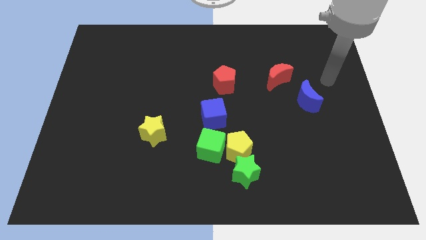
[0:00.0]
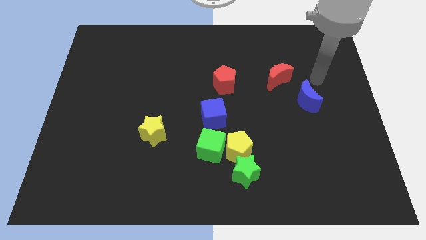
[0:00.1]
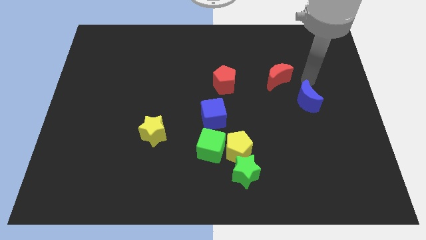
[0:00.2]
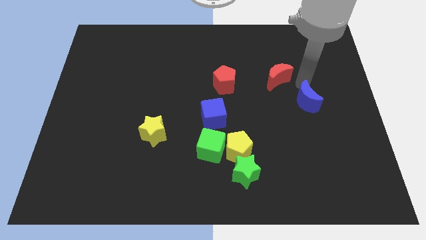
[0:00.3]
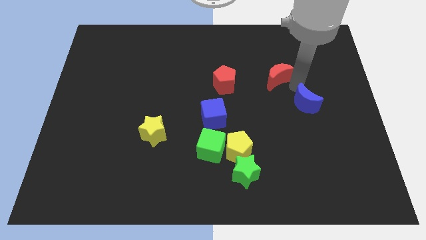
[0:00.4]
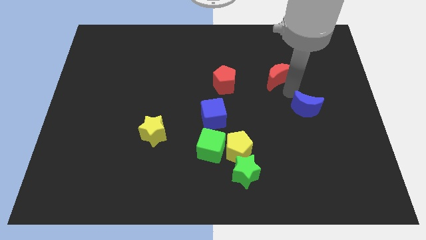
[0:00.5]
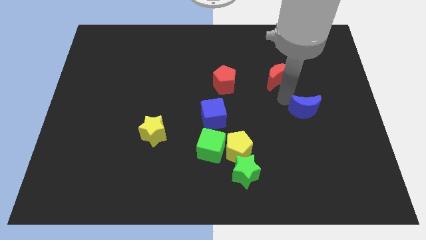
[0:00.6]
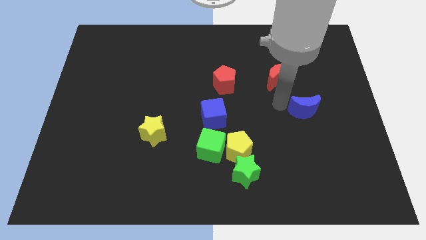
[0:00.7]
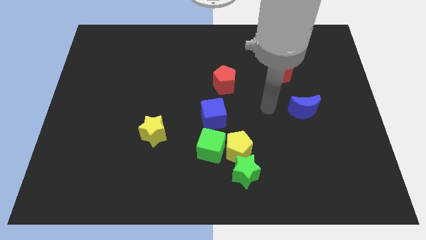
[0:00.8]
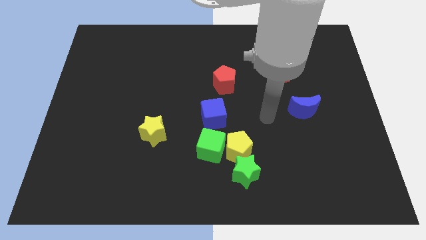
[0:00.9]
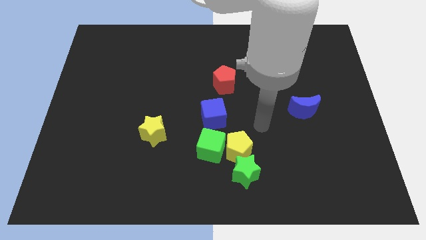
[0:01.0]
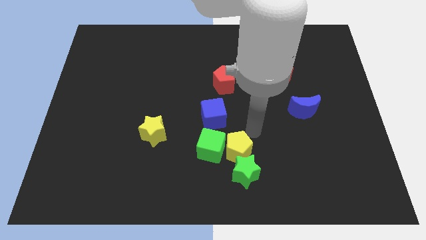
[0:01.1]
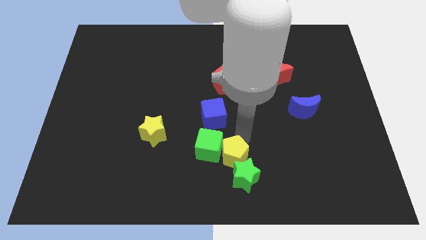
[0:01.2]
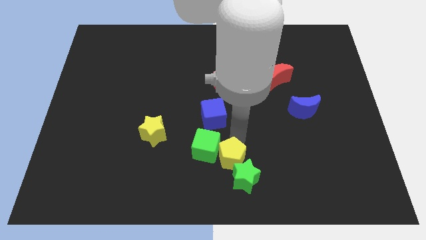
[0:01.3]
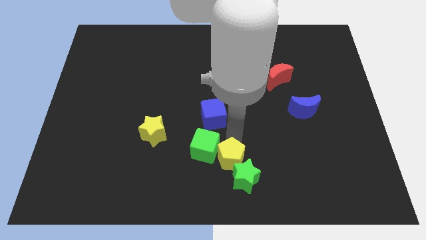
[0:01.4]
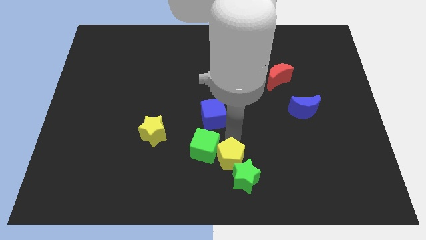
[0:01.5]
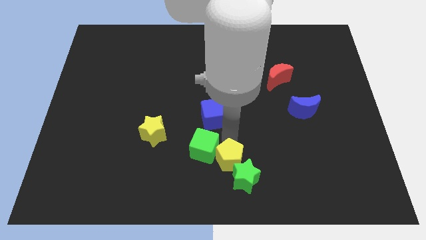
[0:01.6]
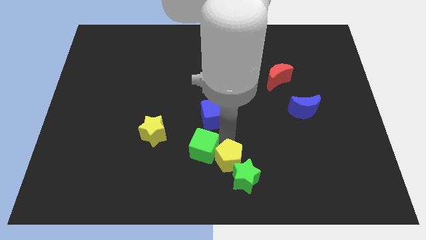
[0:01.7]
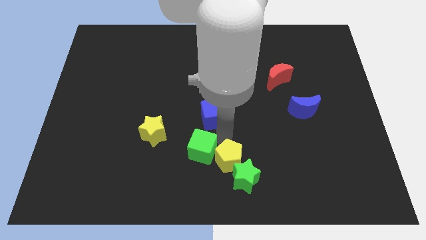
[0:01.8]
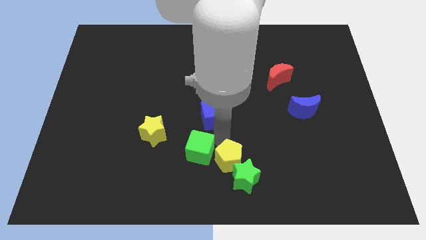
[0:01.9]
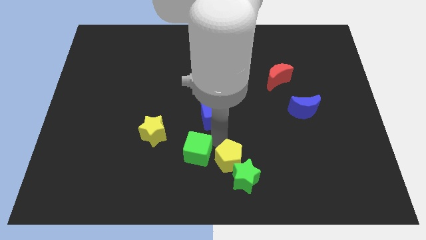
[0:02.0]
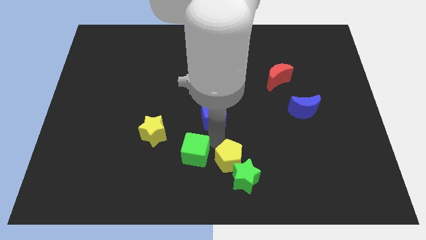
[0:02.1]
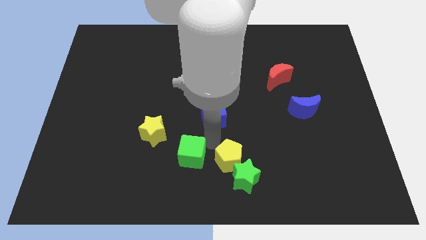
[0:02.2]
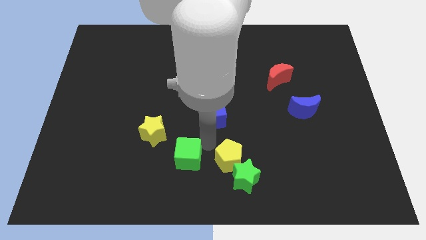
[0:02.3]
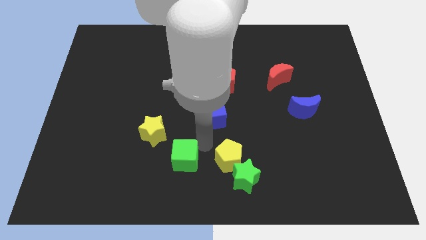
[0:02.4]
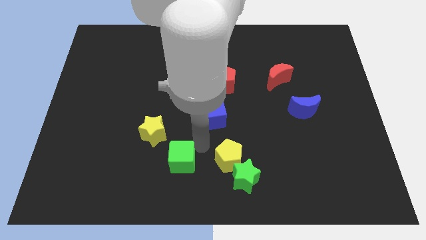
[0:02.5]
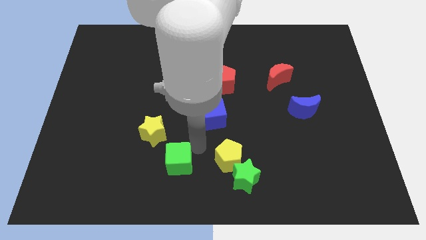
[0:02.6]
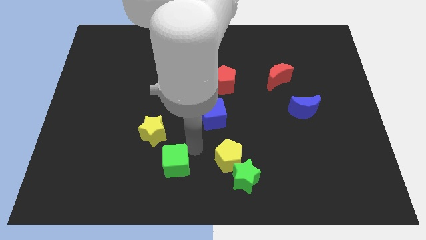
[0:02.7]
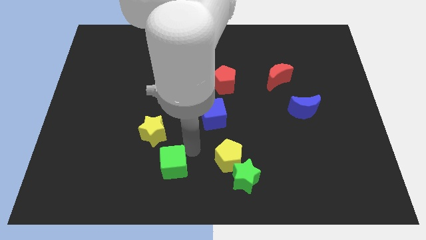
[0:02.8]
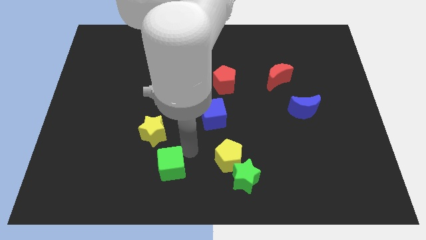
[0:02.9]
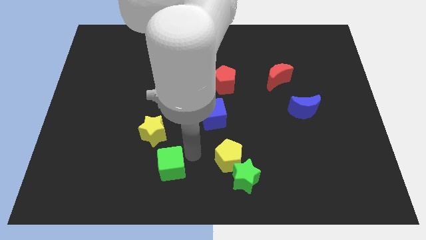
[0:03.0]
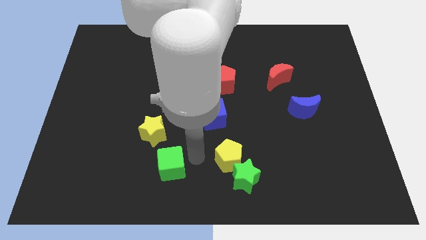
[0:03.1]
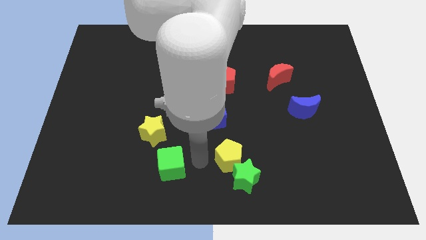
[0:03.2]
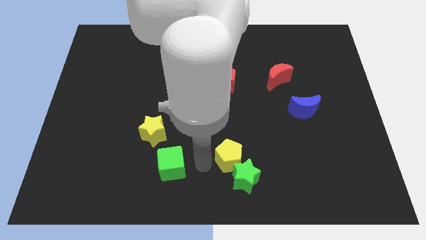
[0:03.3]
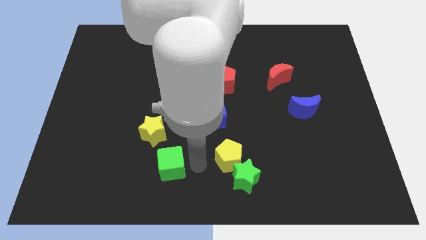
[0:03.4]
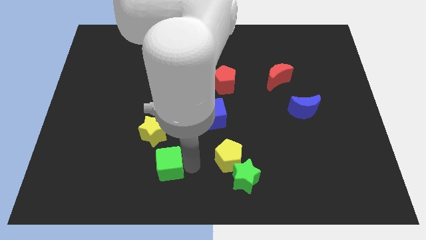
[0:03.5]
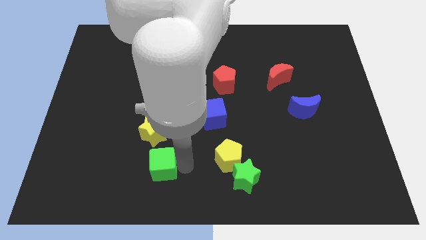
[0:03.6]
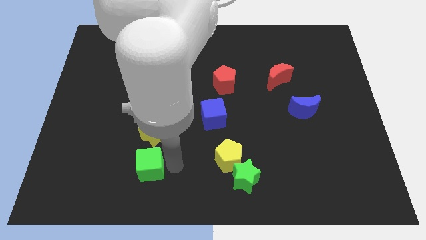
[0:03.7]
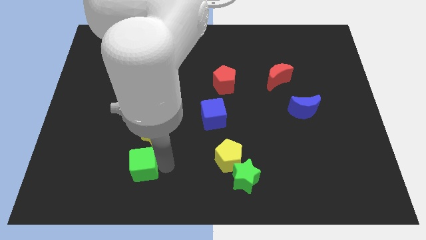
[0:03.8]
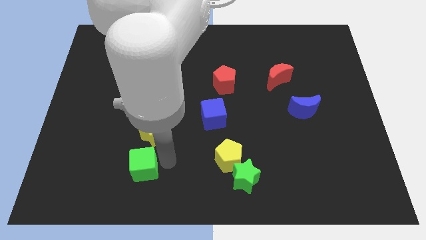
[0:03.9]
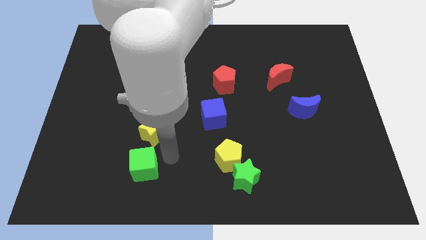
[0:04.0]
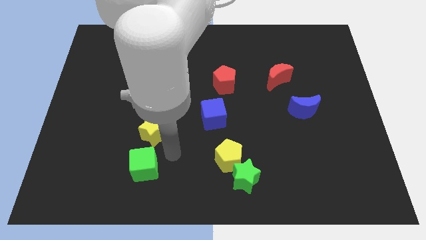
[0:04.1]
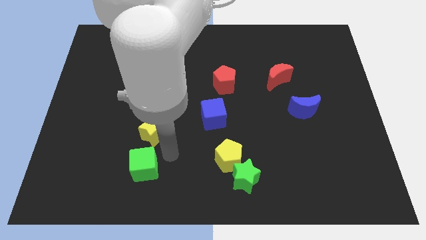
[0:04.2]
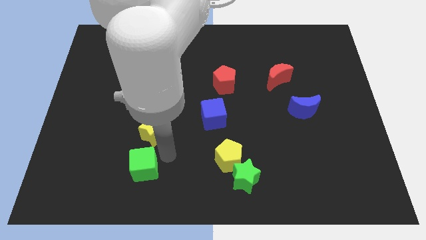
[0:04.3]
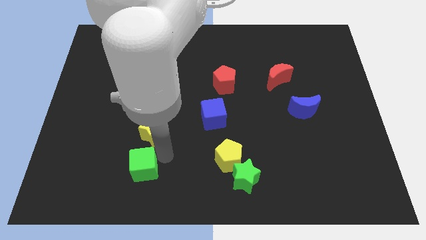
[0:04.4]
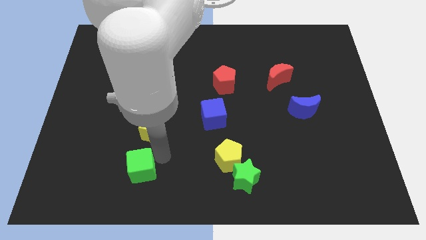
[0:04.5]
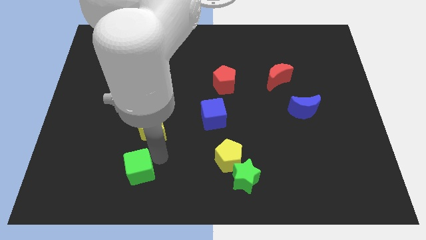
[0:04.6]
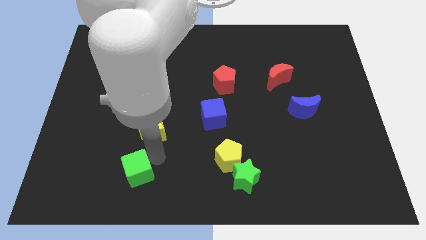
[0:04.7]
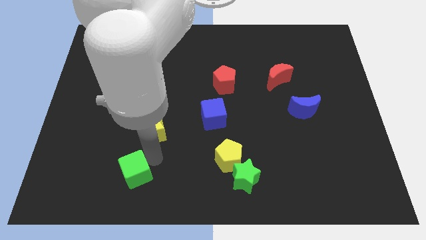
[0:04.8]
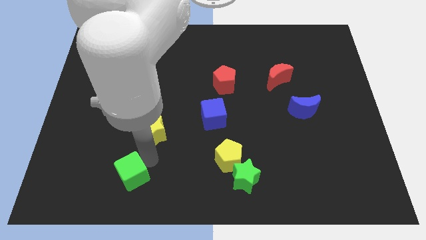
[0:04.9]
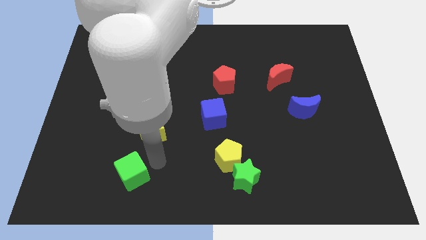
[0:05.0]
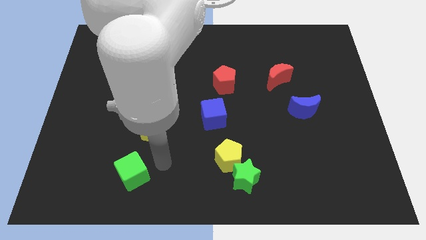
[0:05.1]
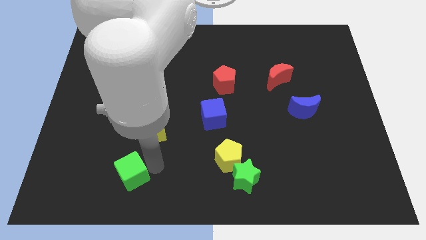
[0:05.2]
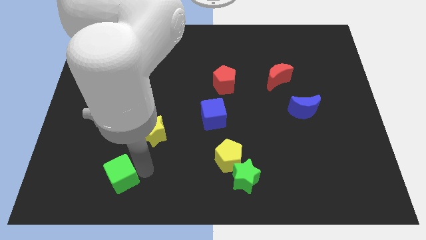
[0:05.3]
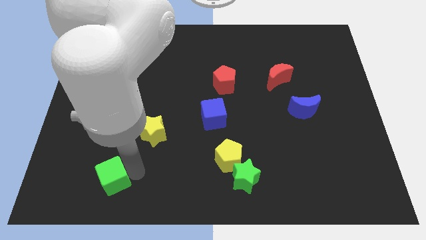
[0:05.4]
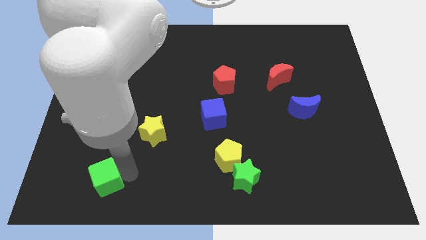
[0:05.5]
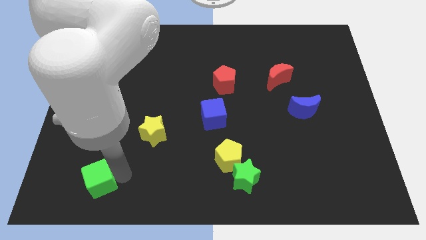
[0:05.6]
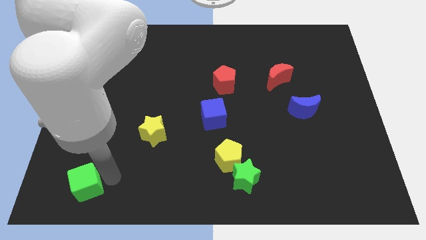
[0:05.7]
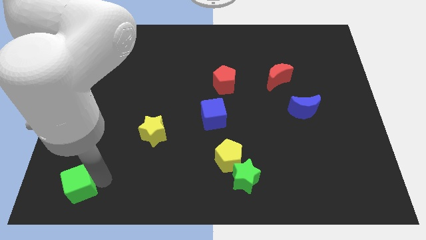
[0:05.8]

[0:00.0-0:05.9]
slide the green cube to the bottom left corner
